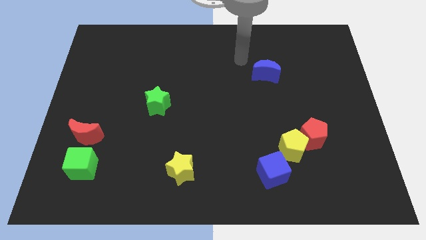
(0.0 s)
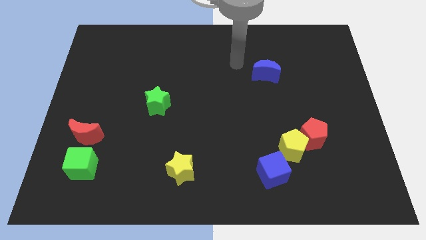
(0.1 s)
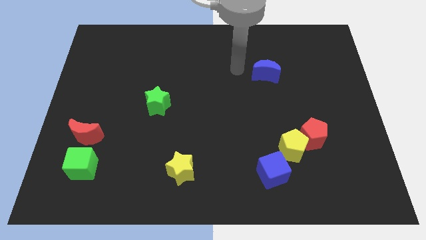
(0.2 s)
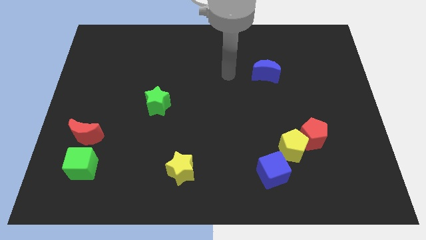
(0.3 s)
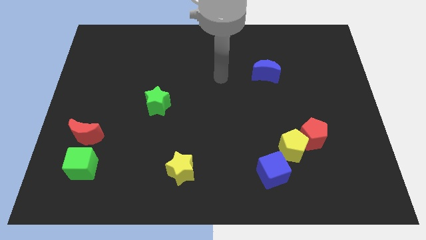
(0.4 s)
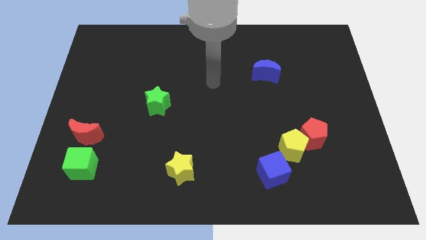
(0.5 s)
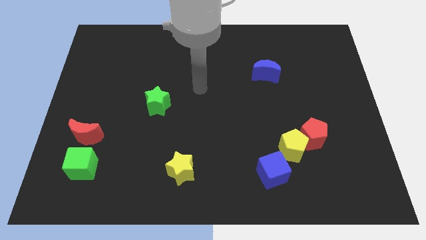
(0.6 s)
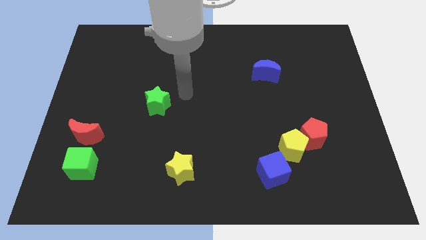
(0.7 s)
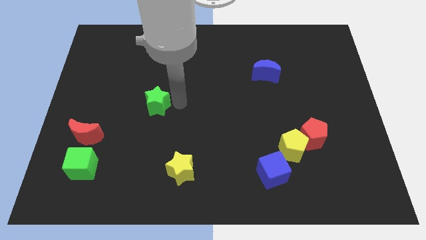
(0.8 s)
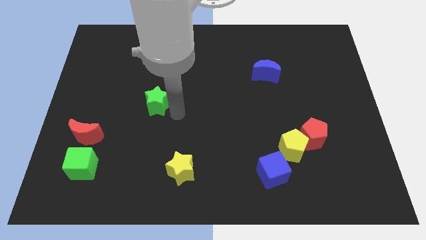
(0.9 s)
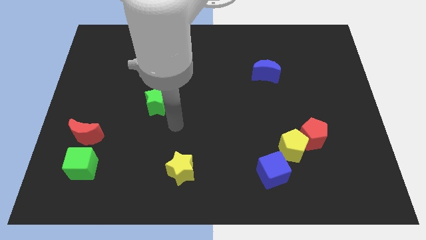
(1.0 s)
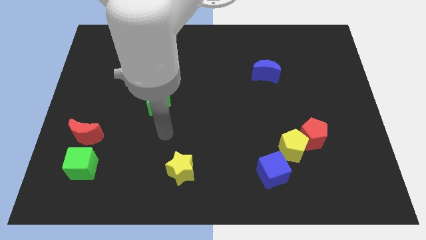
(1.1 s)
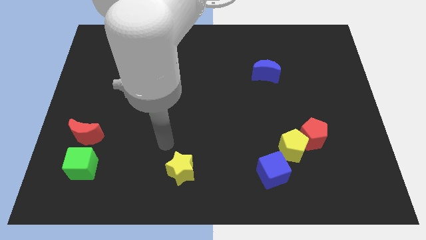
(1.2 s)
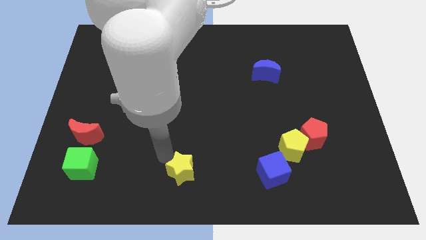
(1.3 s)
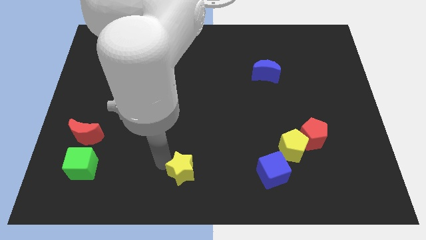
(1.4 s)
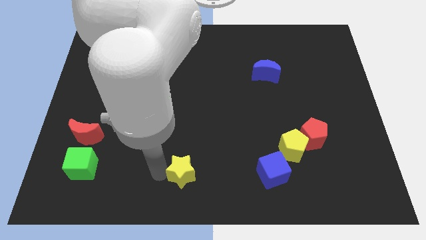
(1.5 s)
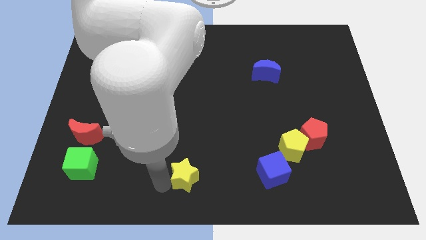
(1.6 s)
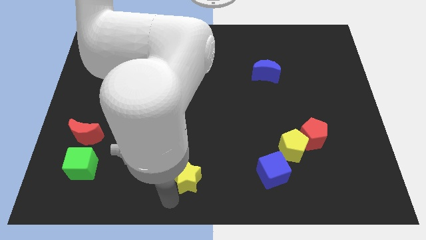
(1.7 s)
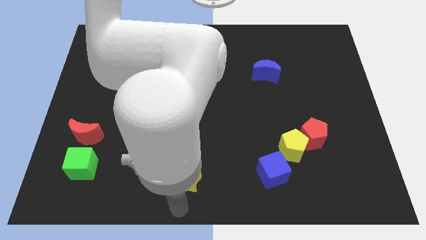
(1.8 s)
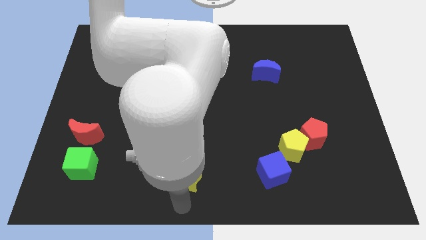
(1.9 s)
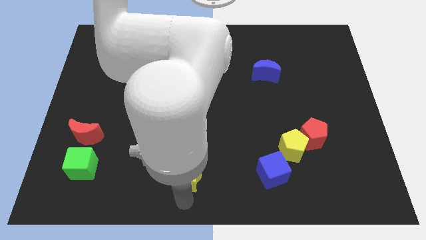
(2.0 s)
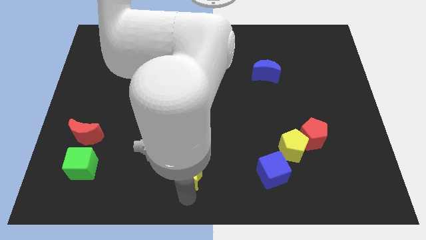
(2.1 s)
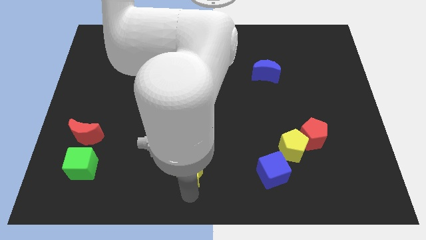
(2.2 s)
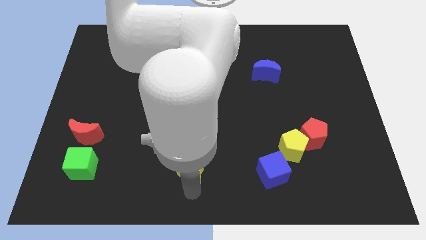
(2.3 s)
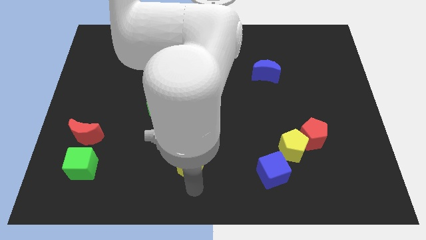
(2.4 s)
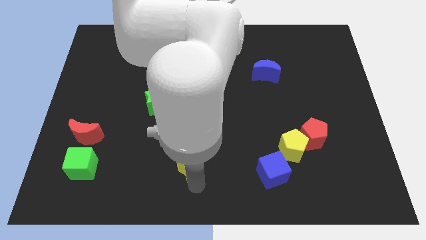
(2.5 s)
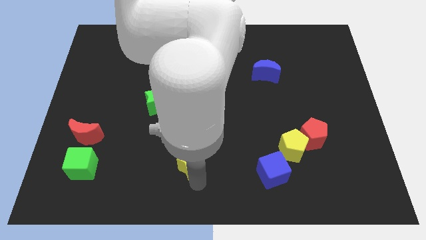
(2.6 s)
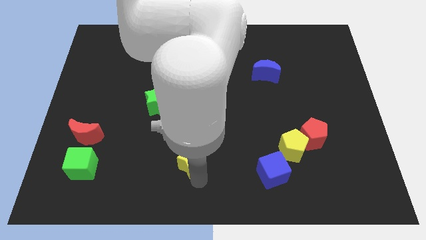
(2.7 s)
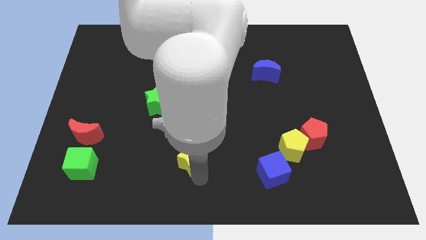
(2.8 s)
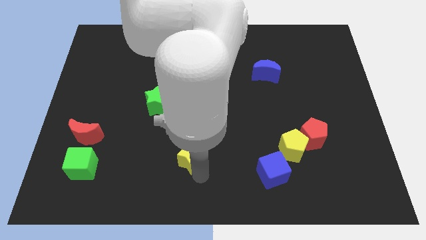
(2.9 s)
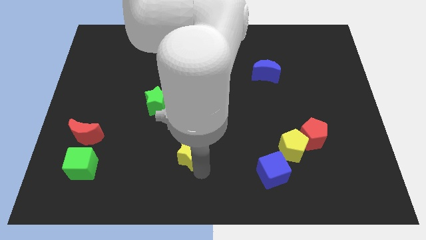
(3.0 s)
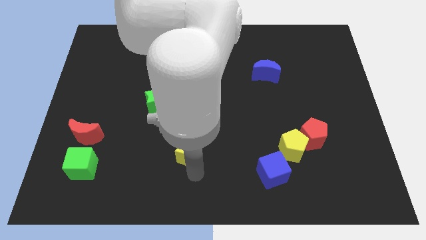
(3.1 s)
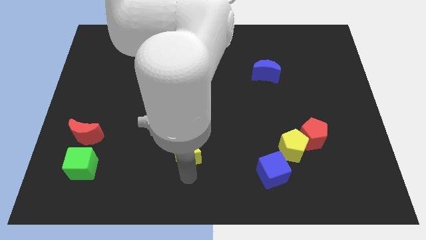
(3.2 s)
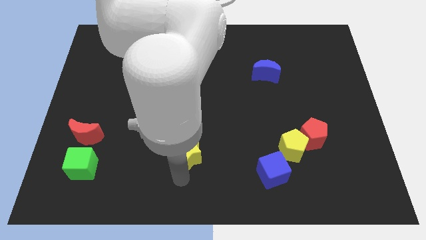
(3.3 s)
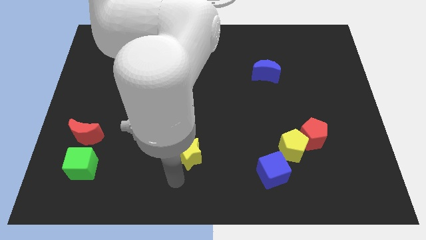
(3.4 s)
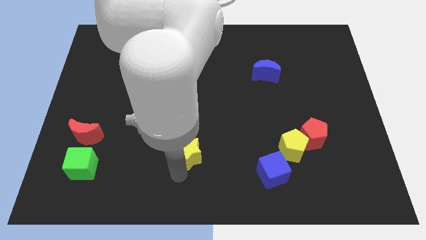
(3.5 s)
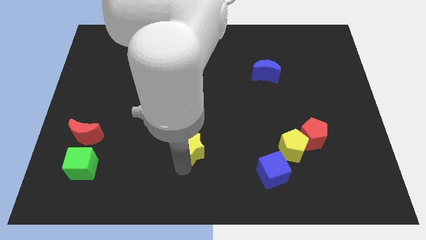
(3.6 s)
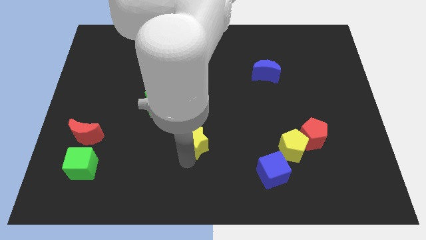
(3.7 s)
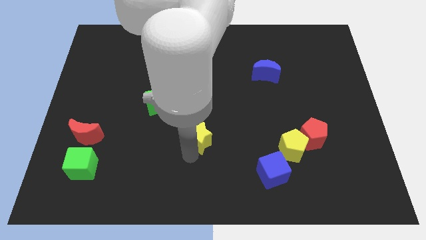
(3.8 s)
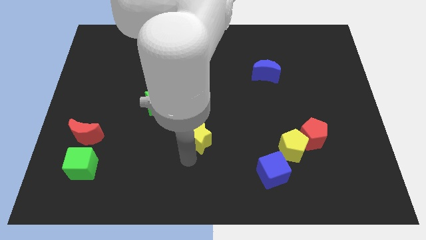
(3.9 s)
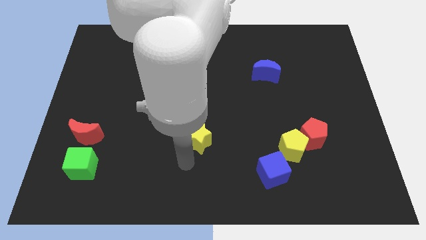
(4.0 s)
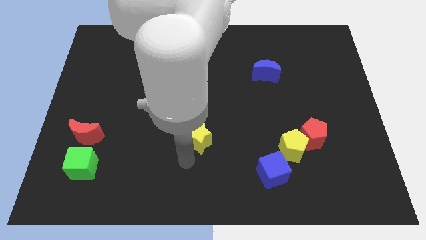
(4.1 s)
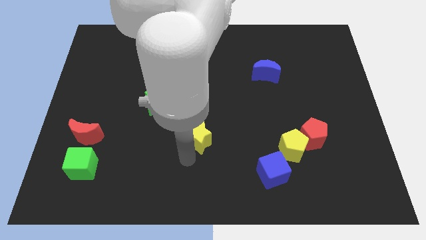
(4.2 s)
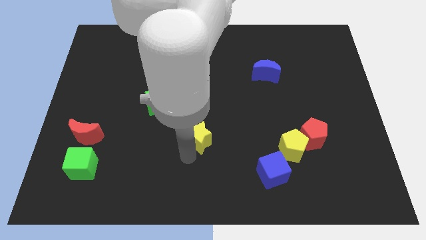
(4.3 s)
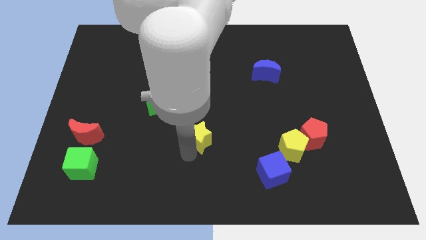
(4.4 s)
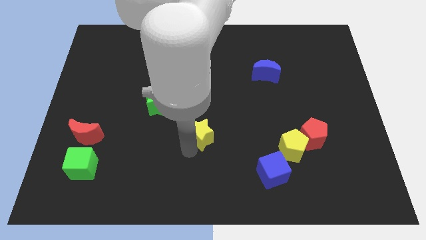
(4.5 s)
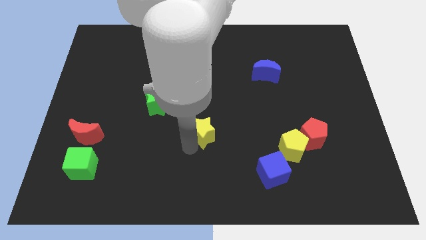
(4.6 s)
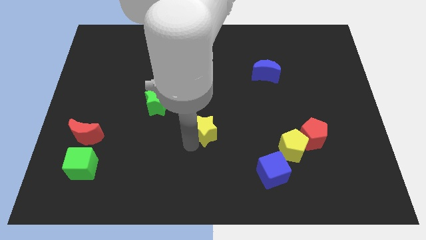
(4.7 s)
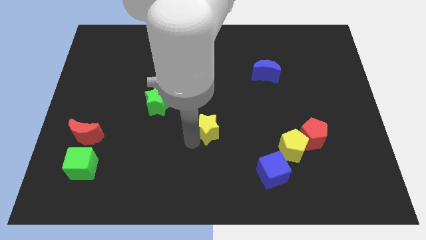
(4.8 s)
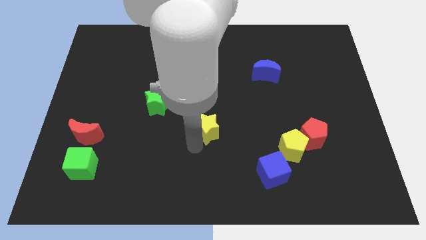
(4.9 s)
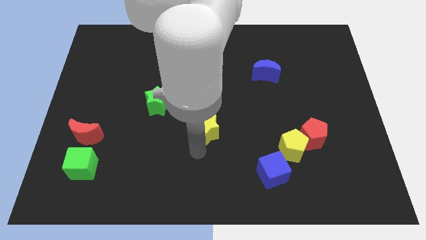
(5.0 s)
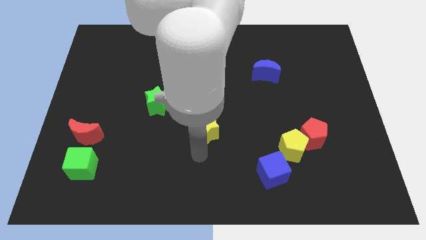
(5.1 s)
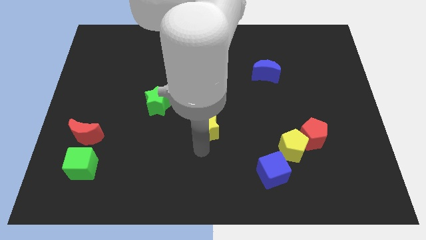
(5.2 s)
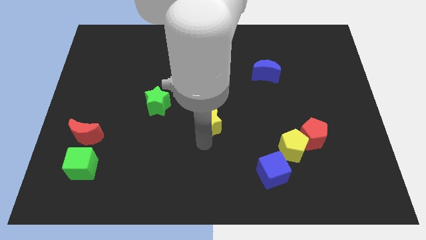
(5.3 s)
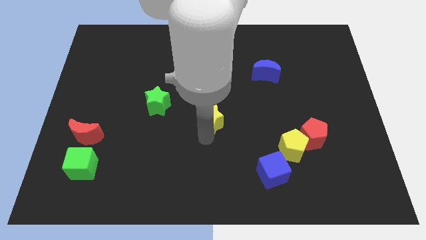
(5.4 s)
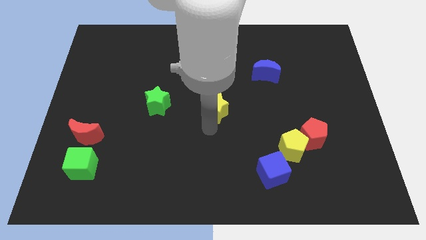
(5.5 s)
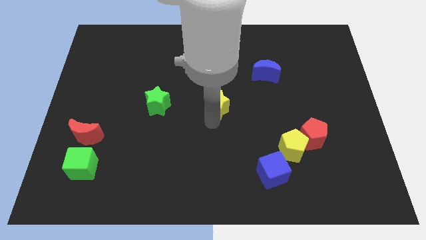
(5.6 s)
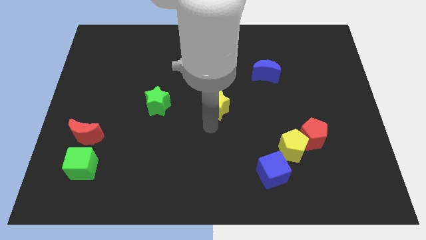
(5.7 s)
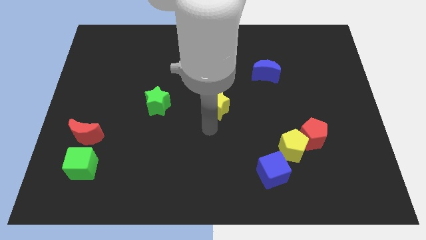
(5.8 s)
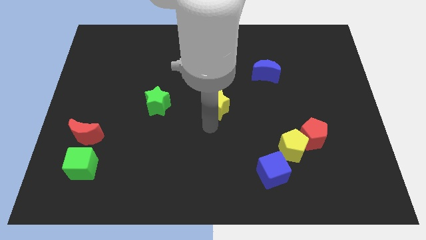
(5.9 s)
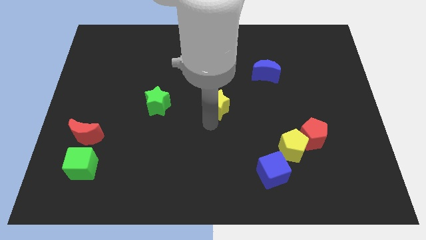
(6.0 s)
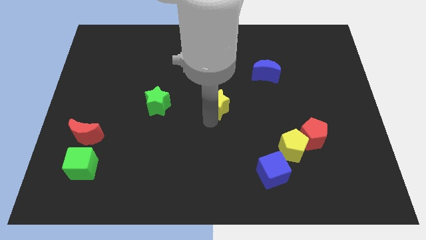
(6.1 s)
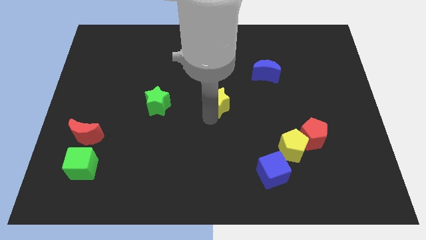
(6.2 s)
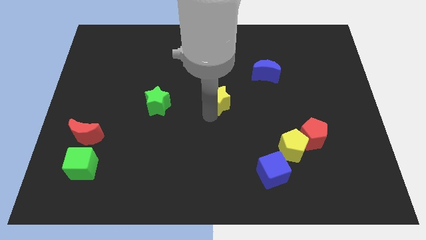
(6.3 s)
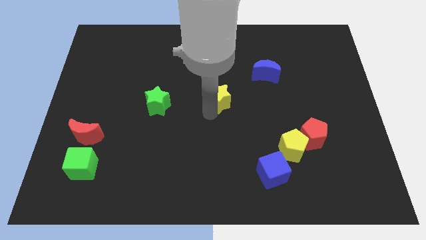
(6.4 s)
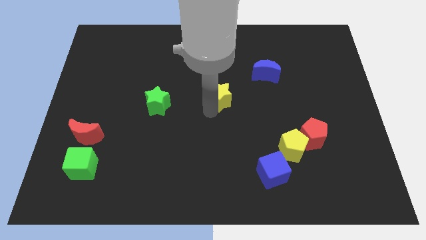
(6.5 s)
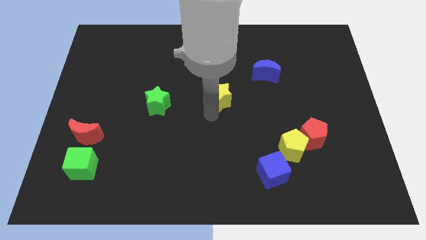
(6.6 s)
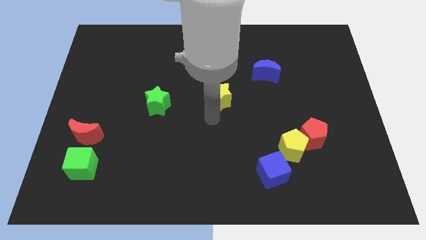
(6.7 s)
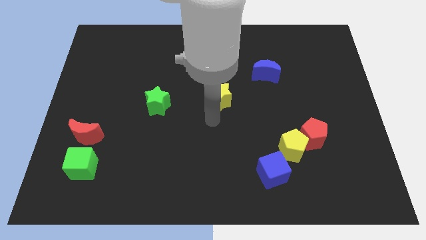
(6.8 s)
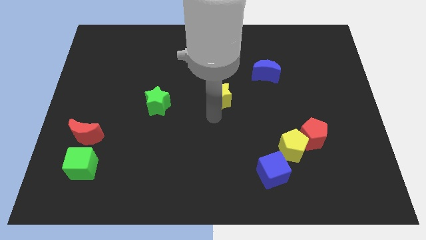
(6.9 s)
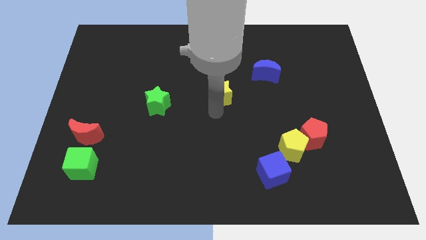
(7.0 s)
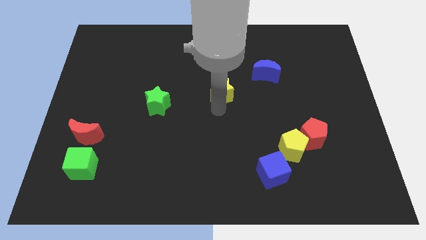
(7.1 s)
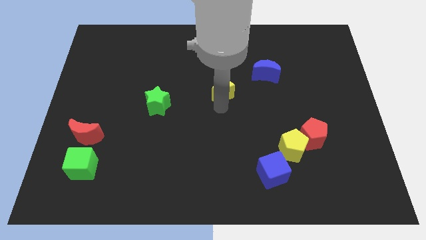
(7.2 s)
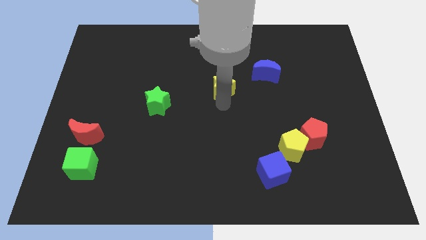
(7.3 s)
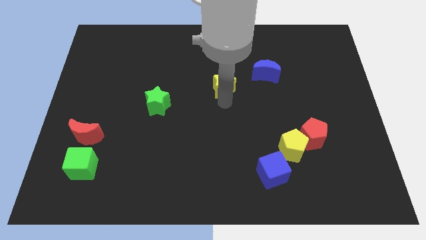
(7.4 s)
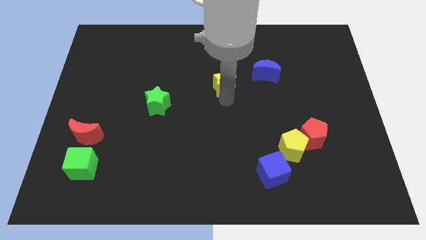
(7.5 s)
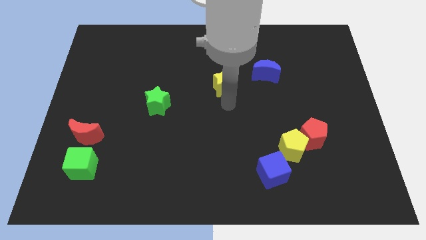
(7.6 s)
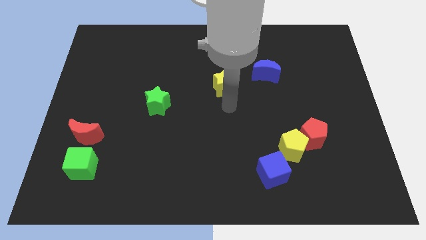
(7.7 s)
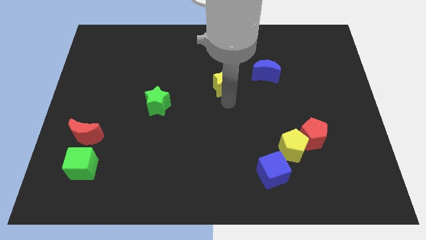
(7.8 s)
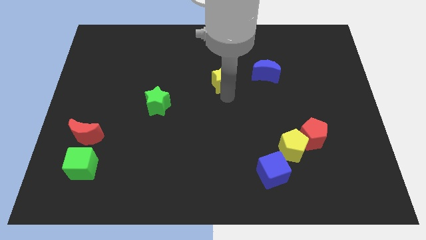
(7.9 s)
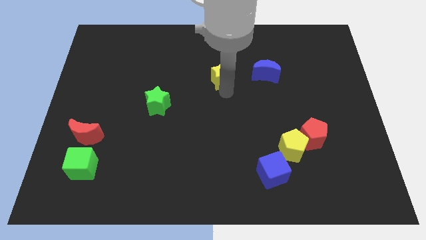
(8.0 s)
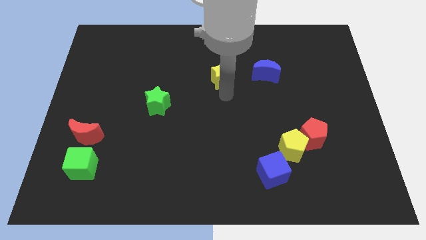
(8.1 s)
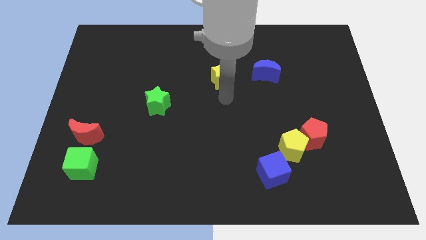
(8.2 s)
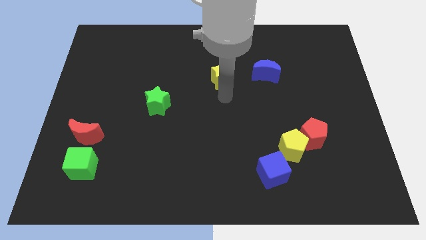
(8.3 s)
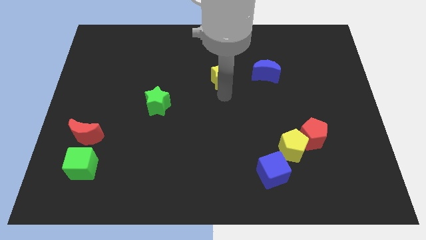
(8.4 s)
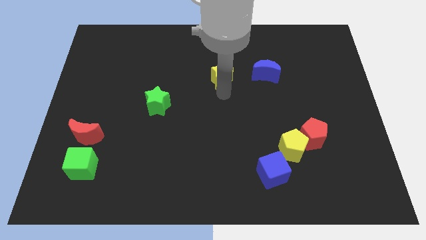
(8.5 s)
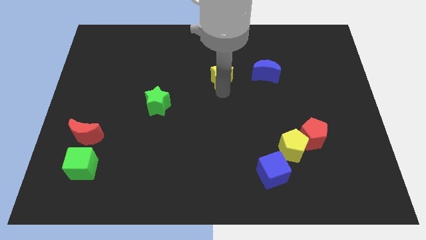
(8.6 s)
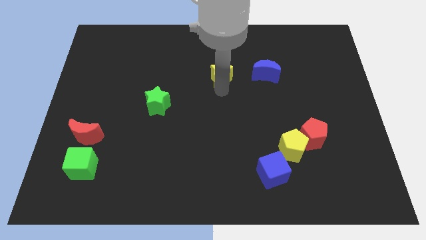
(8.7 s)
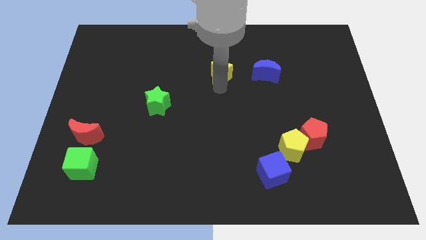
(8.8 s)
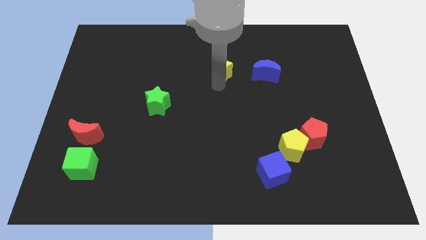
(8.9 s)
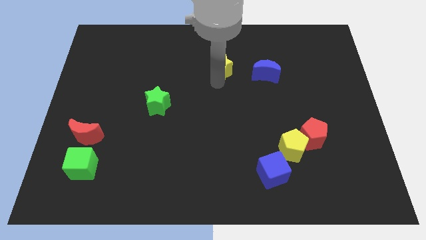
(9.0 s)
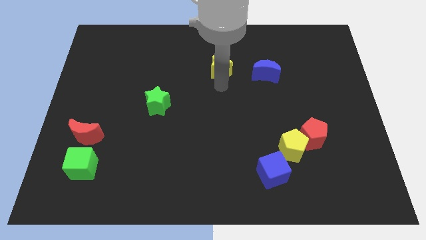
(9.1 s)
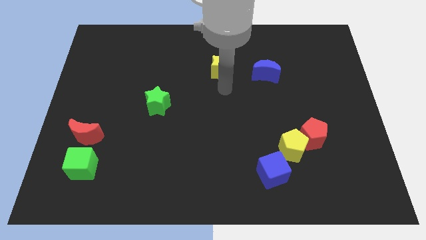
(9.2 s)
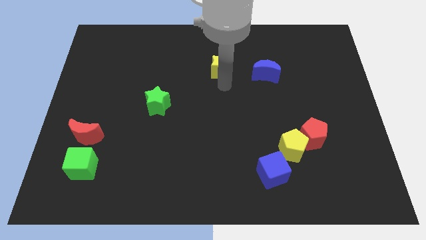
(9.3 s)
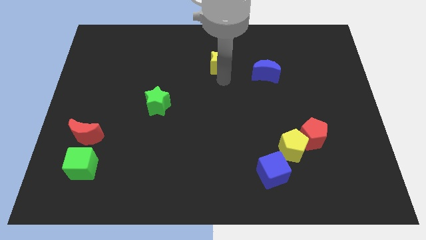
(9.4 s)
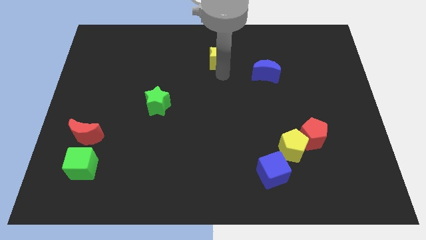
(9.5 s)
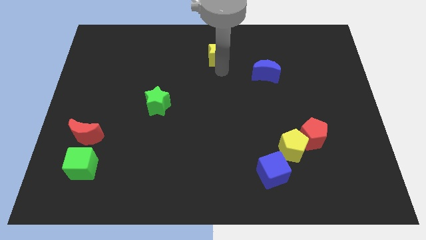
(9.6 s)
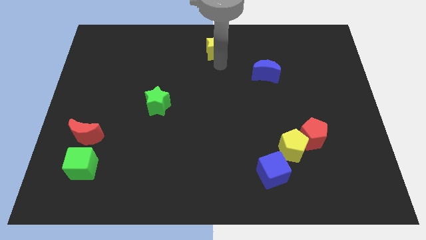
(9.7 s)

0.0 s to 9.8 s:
move the yellow star to the towards your base
